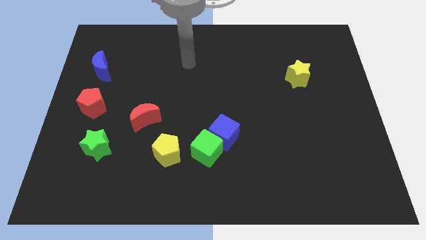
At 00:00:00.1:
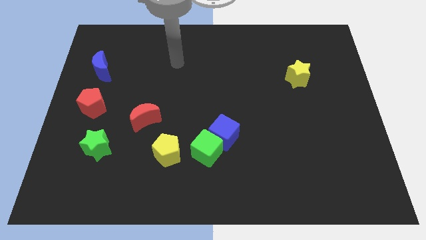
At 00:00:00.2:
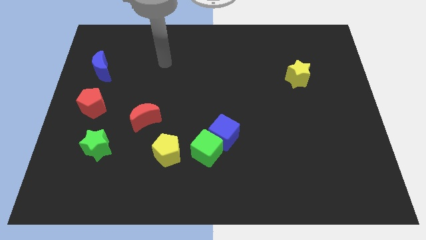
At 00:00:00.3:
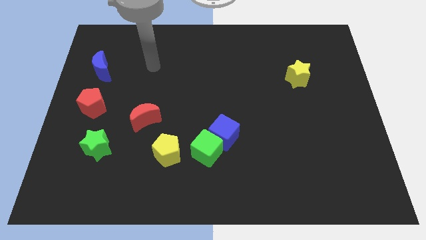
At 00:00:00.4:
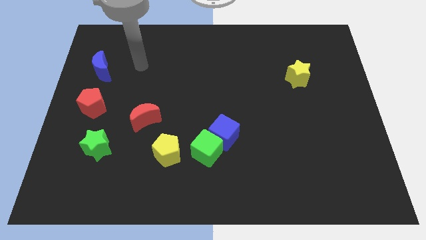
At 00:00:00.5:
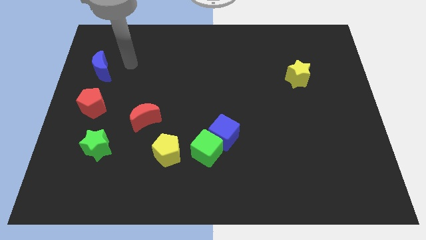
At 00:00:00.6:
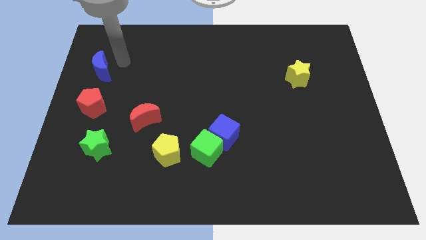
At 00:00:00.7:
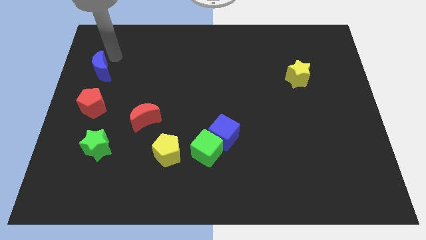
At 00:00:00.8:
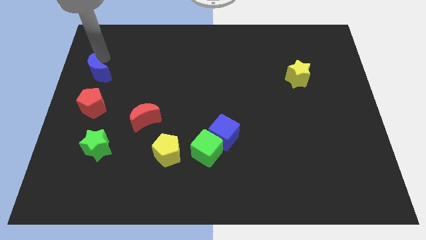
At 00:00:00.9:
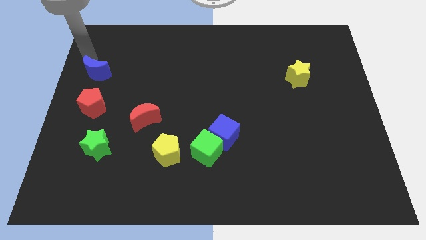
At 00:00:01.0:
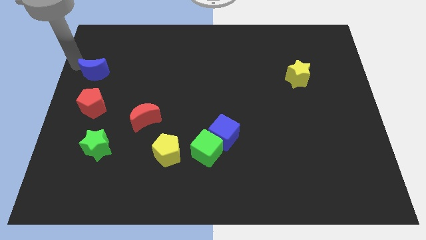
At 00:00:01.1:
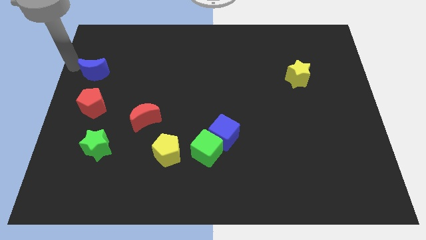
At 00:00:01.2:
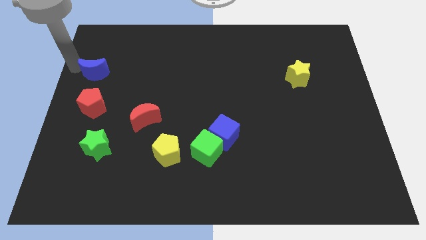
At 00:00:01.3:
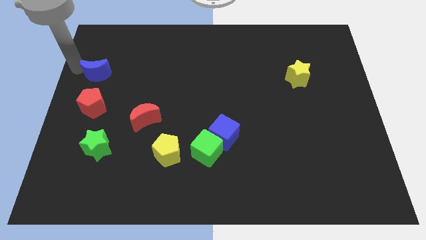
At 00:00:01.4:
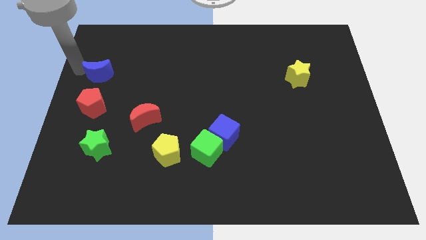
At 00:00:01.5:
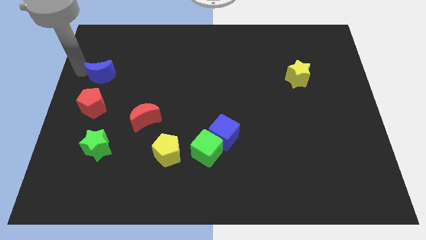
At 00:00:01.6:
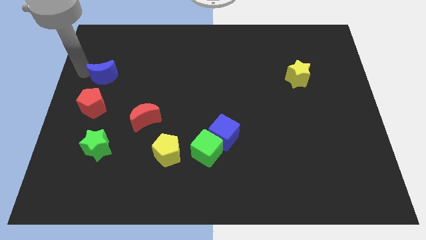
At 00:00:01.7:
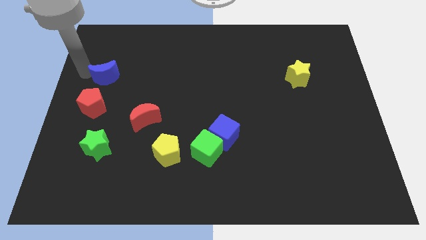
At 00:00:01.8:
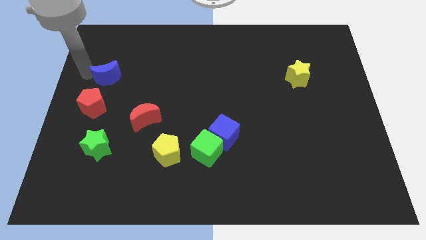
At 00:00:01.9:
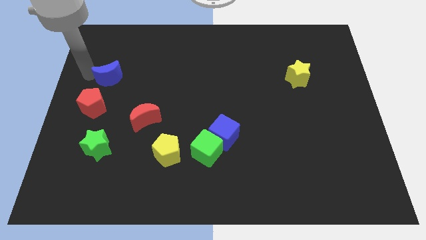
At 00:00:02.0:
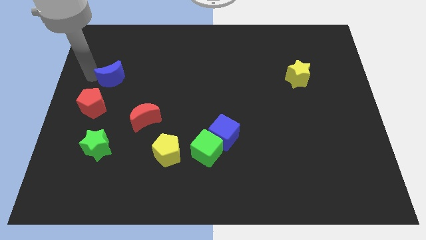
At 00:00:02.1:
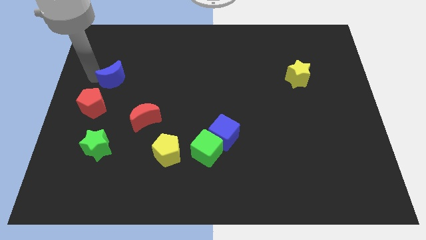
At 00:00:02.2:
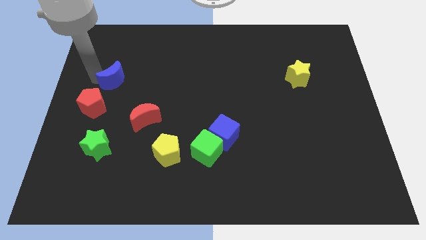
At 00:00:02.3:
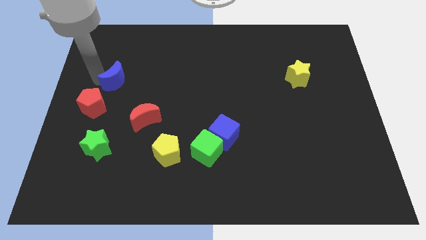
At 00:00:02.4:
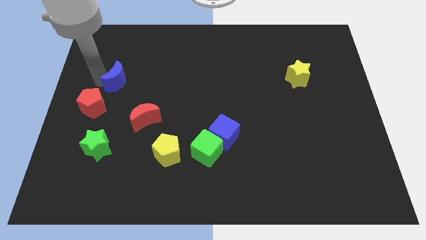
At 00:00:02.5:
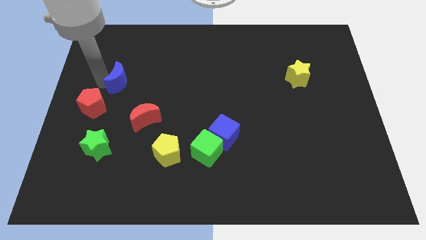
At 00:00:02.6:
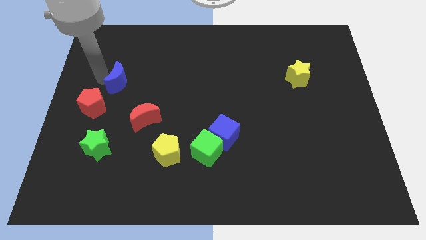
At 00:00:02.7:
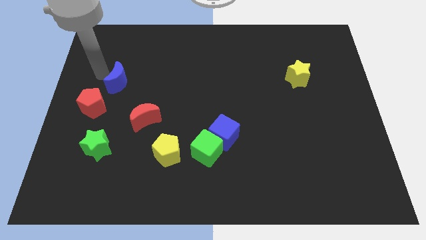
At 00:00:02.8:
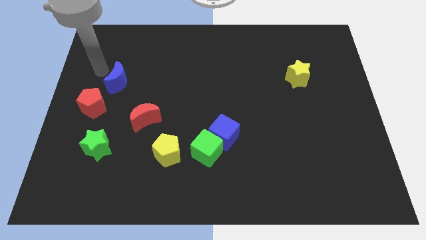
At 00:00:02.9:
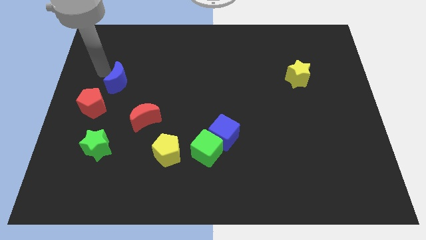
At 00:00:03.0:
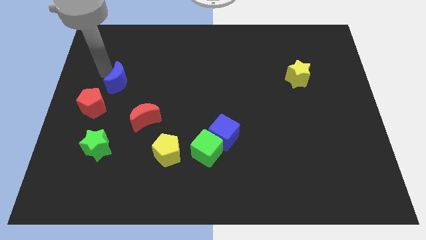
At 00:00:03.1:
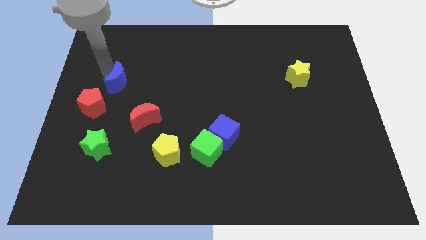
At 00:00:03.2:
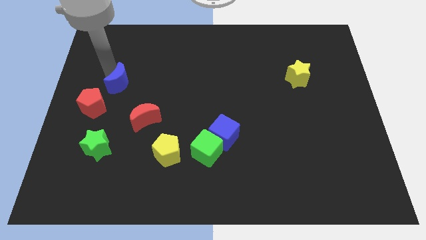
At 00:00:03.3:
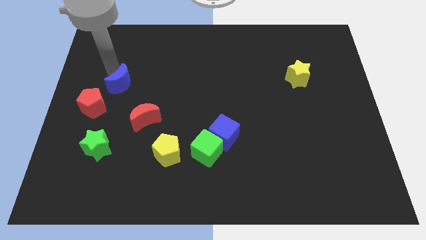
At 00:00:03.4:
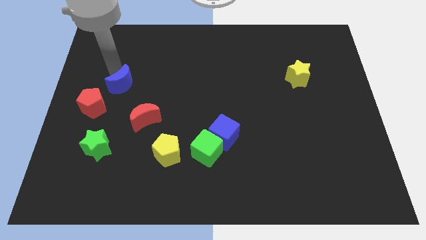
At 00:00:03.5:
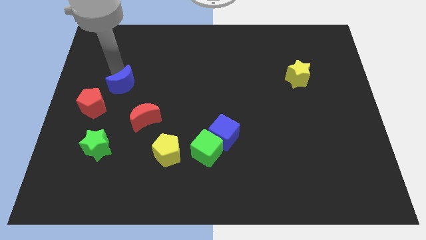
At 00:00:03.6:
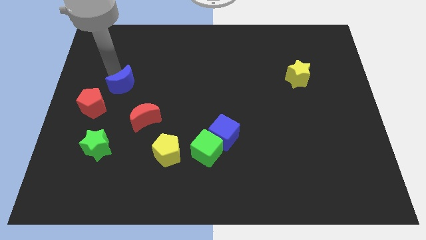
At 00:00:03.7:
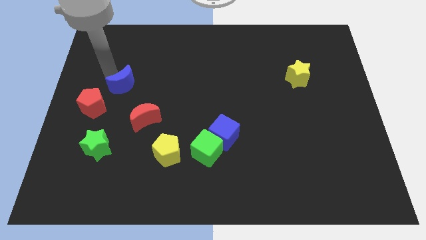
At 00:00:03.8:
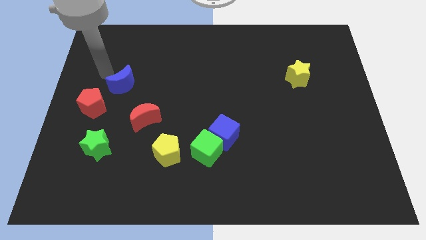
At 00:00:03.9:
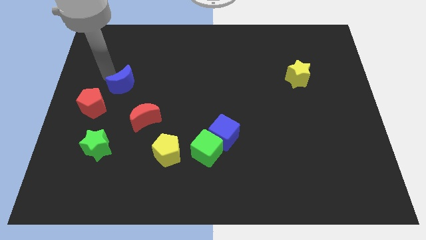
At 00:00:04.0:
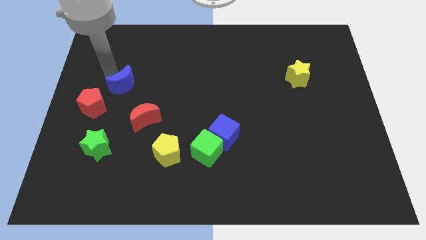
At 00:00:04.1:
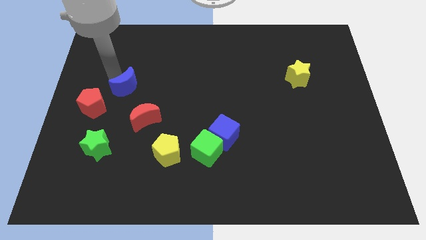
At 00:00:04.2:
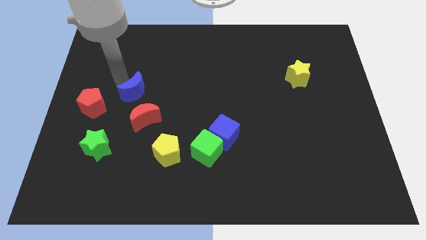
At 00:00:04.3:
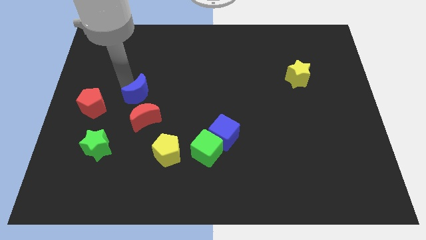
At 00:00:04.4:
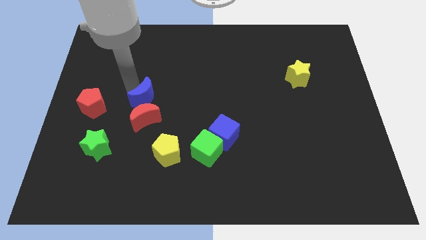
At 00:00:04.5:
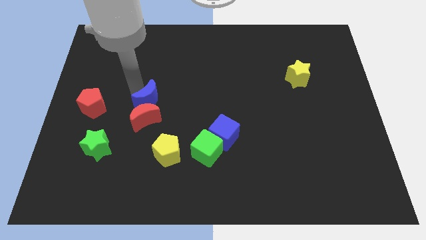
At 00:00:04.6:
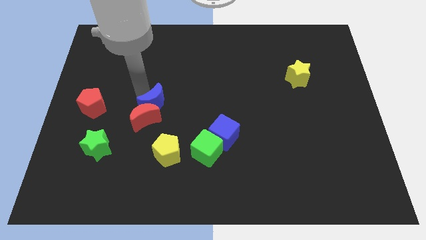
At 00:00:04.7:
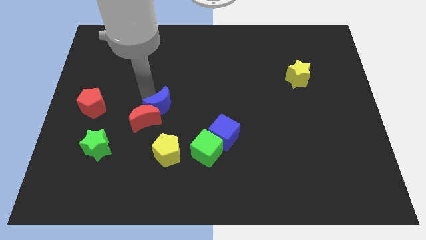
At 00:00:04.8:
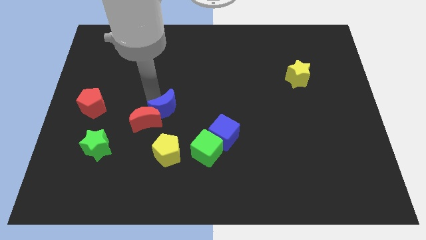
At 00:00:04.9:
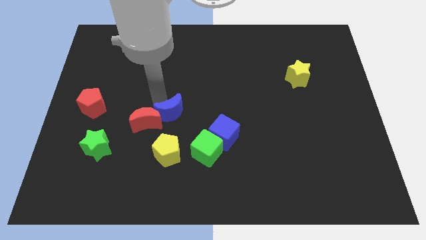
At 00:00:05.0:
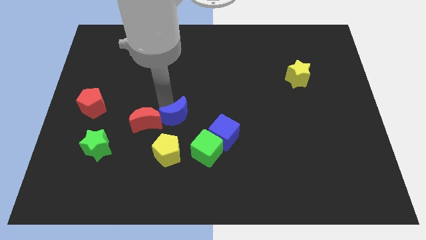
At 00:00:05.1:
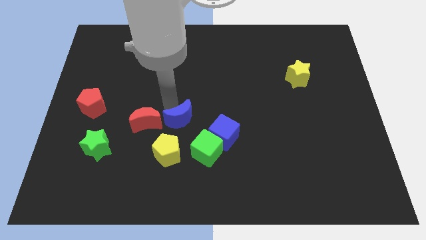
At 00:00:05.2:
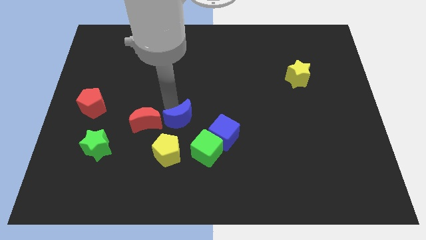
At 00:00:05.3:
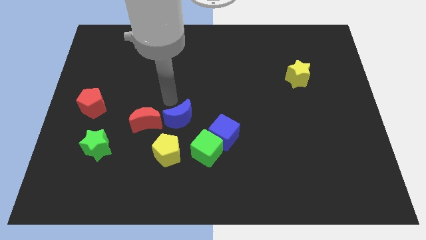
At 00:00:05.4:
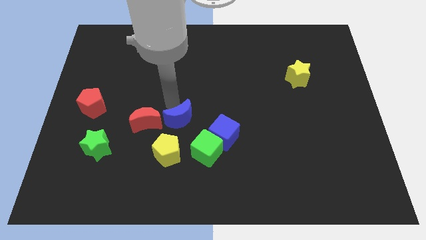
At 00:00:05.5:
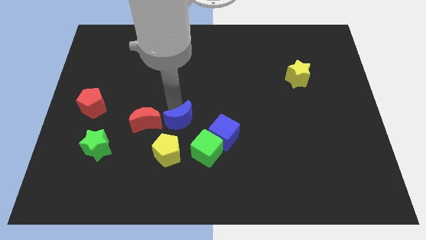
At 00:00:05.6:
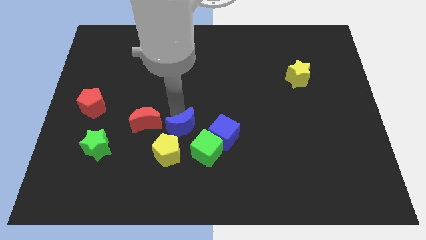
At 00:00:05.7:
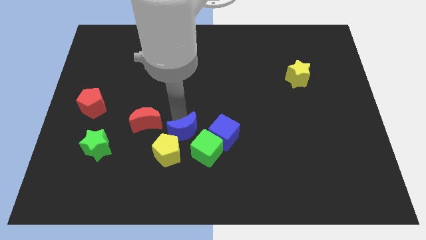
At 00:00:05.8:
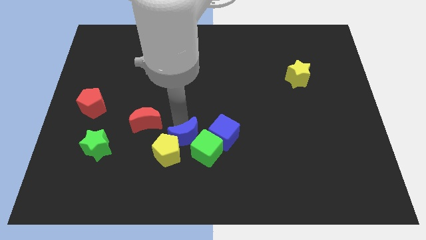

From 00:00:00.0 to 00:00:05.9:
push the blue moon towards the green cube

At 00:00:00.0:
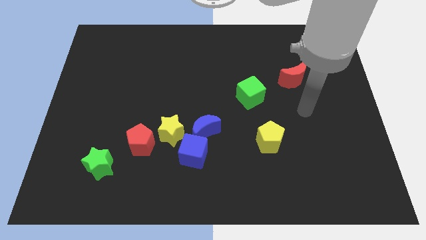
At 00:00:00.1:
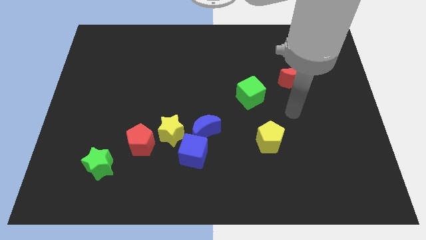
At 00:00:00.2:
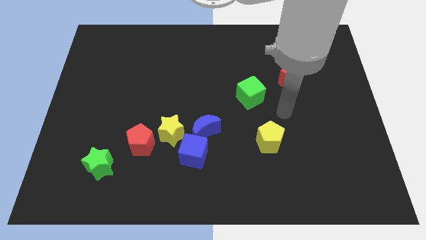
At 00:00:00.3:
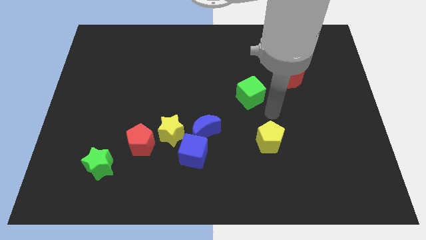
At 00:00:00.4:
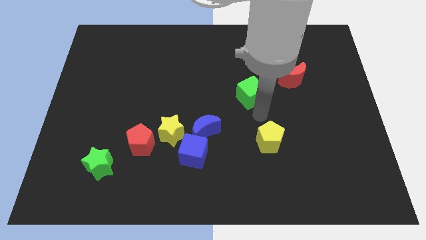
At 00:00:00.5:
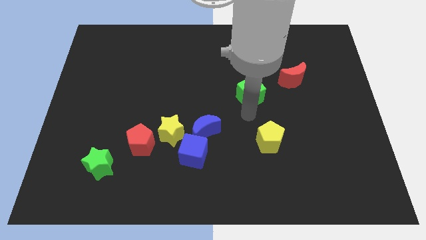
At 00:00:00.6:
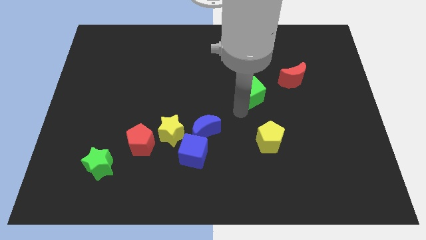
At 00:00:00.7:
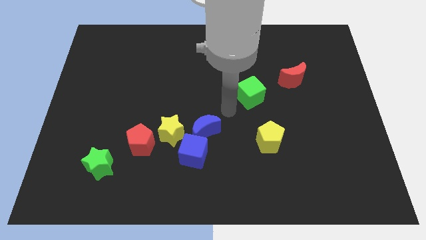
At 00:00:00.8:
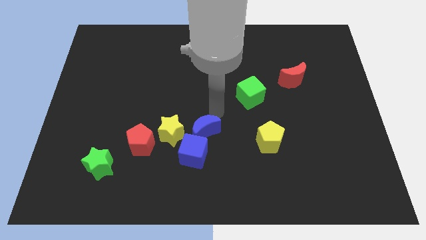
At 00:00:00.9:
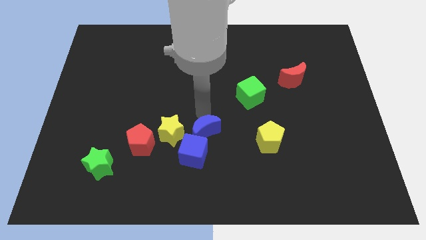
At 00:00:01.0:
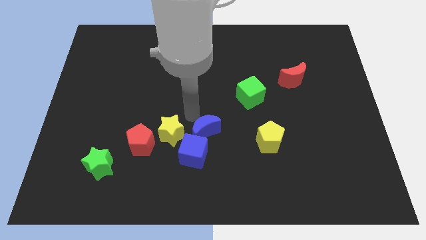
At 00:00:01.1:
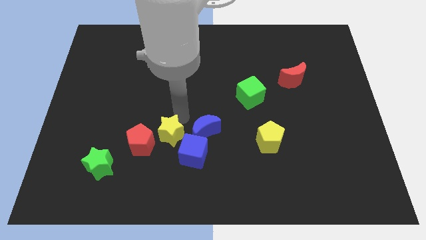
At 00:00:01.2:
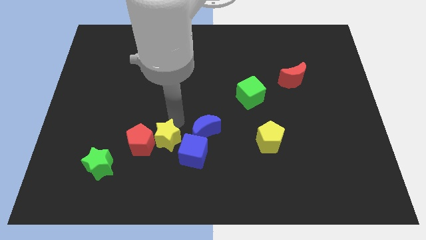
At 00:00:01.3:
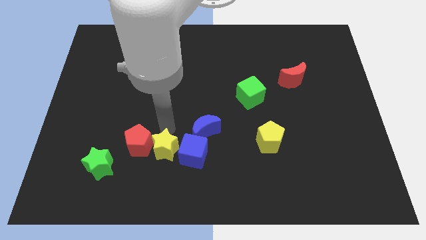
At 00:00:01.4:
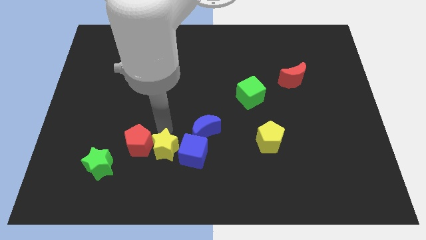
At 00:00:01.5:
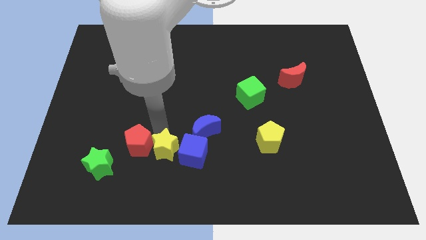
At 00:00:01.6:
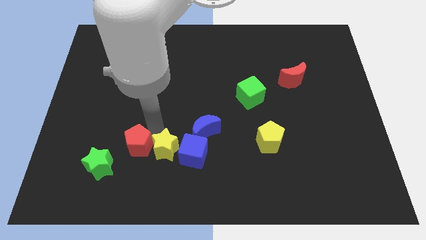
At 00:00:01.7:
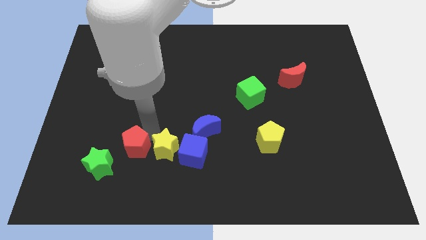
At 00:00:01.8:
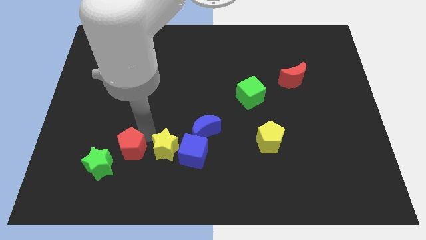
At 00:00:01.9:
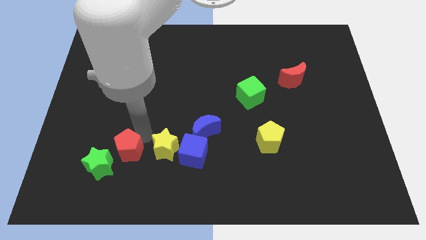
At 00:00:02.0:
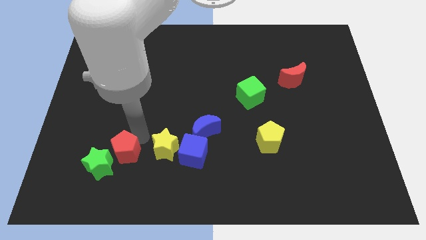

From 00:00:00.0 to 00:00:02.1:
put the red pentagon close to the green star
